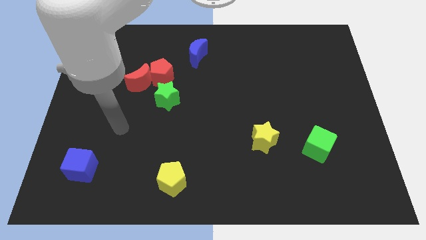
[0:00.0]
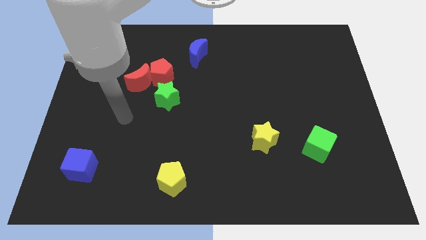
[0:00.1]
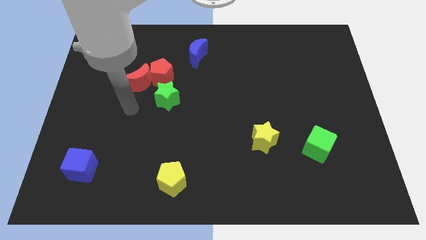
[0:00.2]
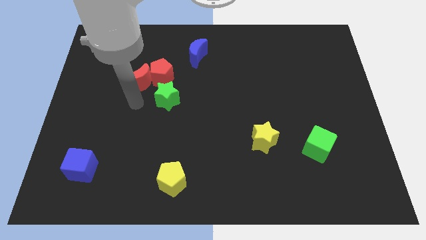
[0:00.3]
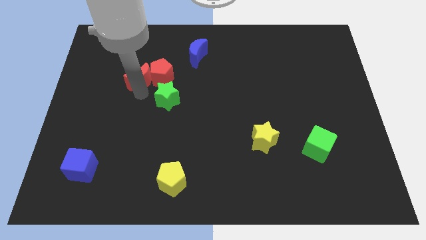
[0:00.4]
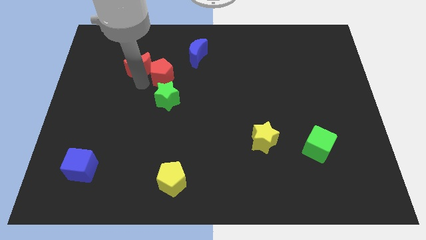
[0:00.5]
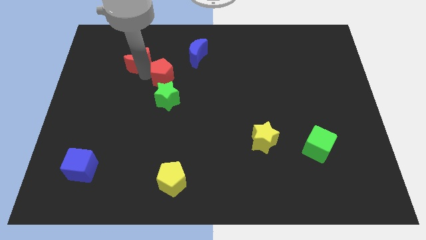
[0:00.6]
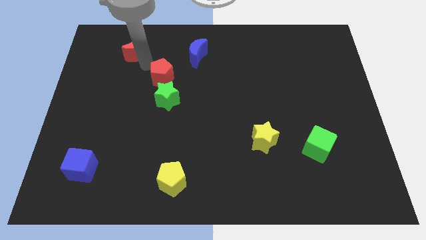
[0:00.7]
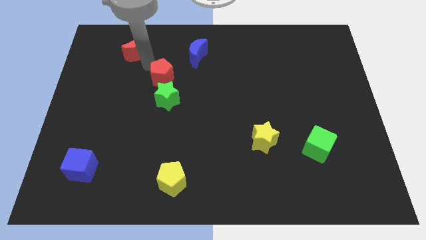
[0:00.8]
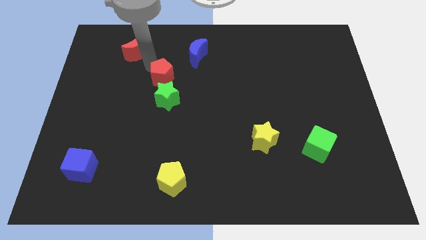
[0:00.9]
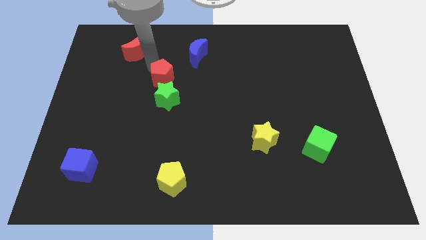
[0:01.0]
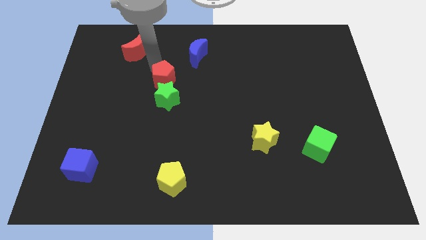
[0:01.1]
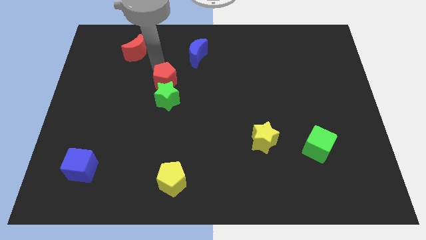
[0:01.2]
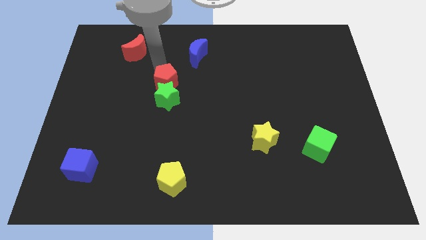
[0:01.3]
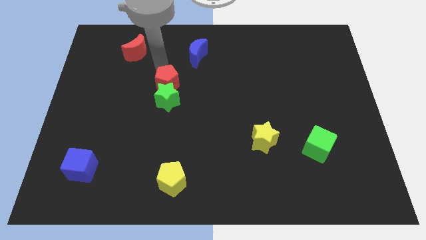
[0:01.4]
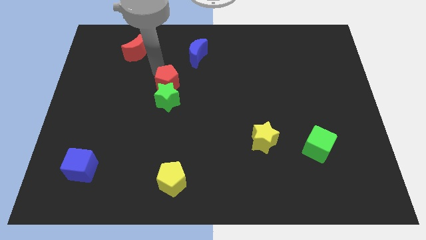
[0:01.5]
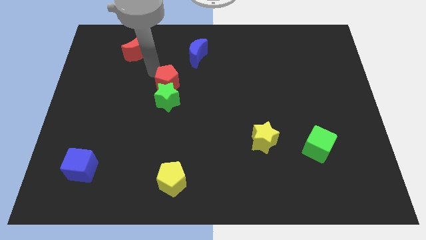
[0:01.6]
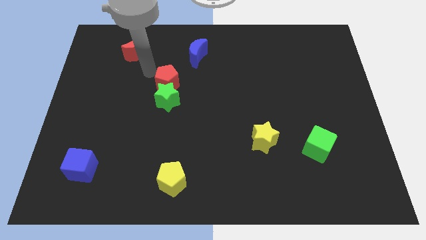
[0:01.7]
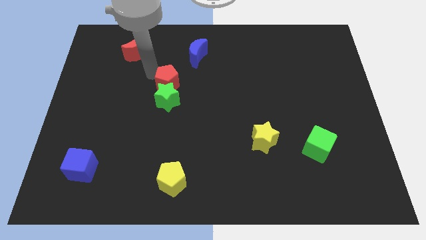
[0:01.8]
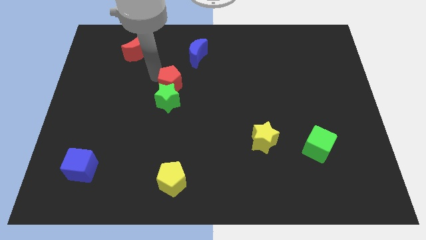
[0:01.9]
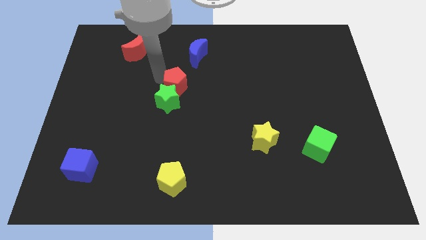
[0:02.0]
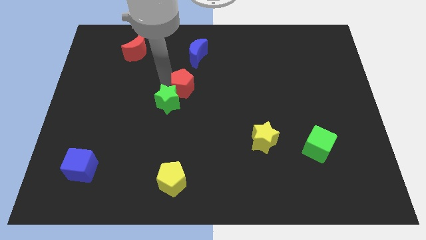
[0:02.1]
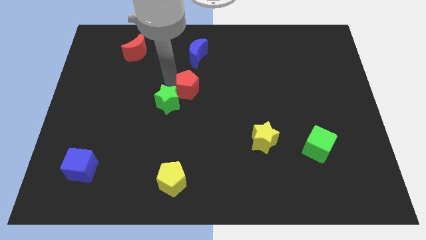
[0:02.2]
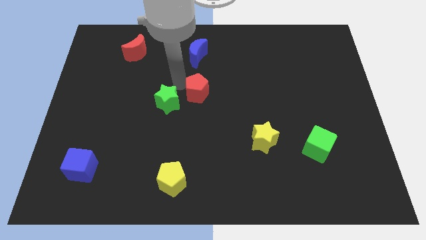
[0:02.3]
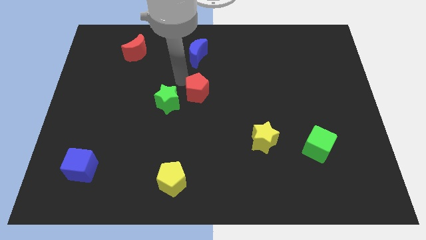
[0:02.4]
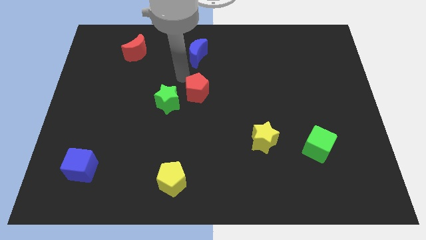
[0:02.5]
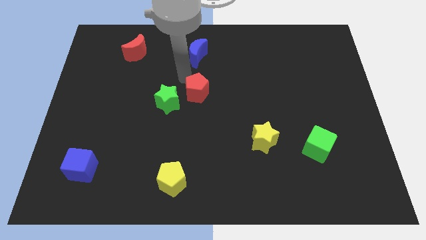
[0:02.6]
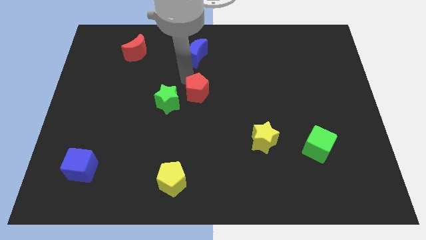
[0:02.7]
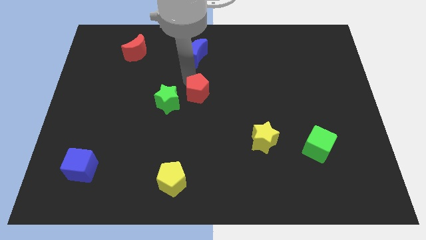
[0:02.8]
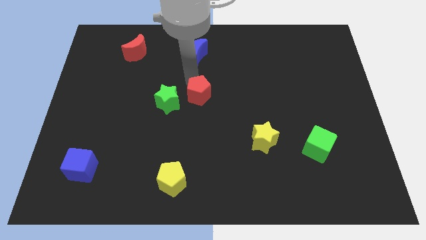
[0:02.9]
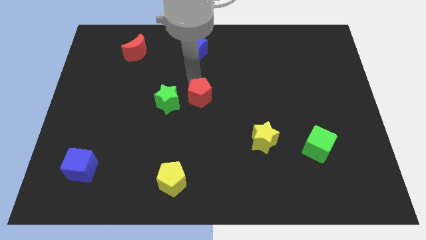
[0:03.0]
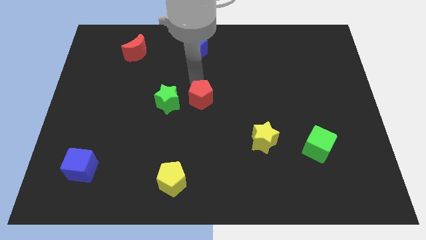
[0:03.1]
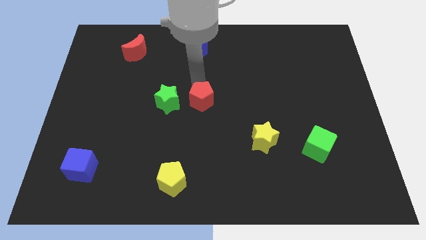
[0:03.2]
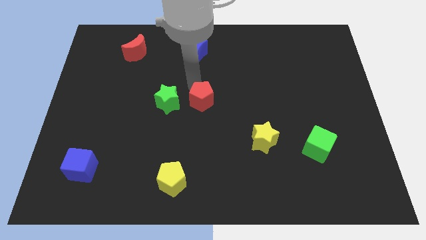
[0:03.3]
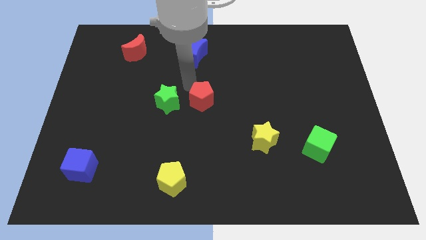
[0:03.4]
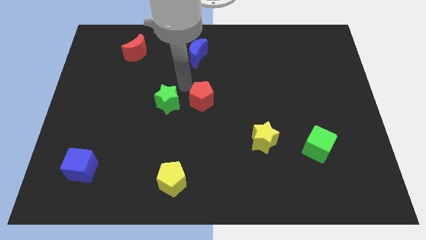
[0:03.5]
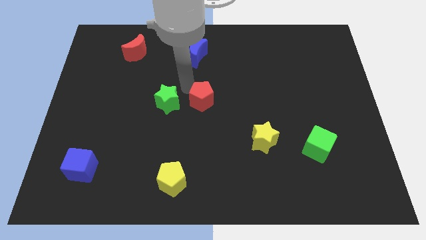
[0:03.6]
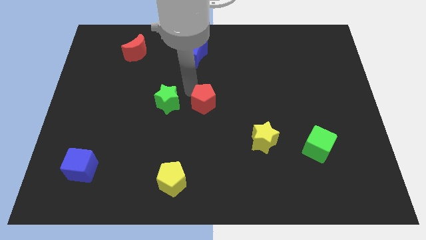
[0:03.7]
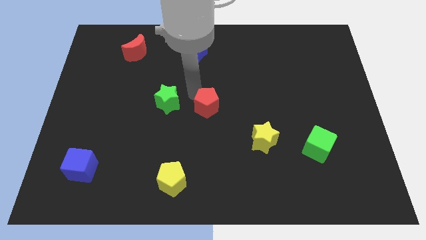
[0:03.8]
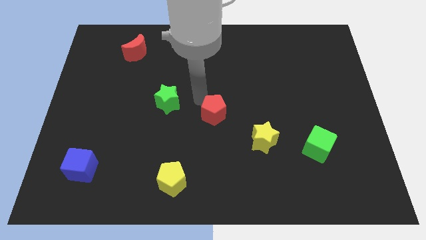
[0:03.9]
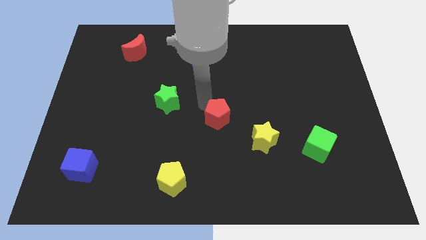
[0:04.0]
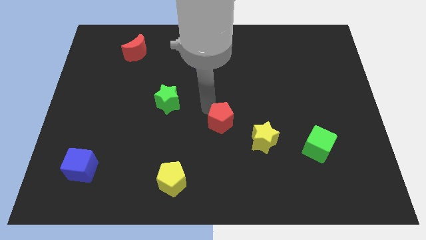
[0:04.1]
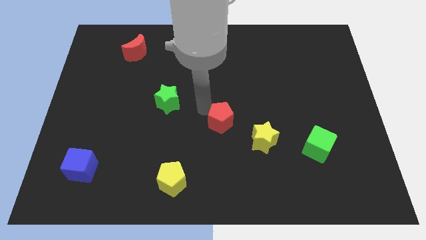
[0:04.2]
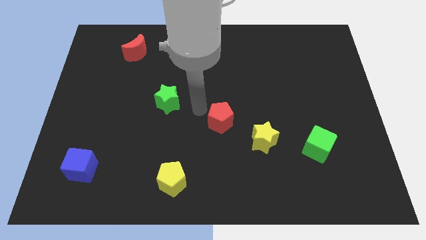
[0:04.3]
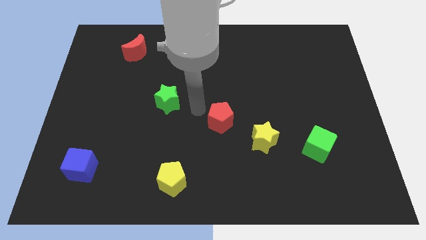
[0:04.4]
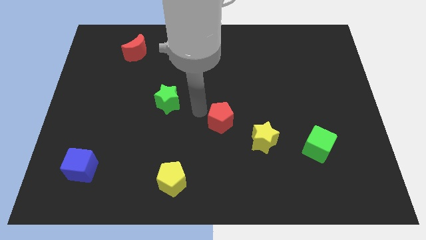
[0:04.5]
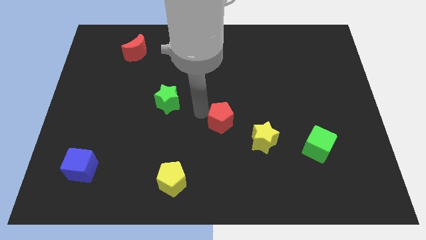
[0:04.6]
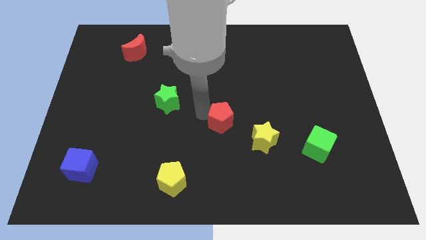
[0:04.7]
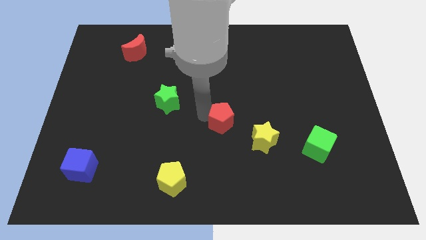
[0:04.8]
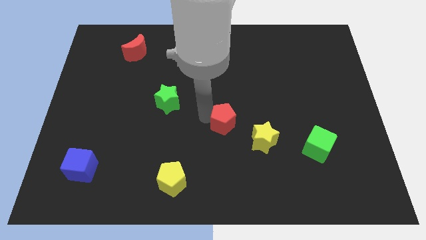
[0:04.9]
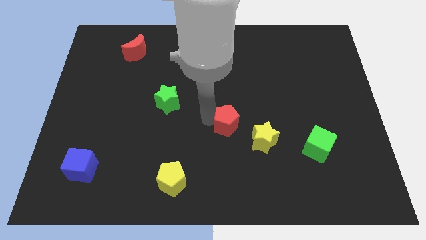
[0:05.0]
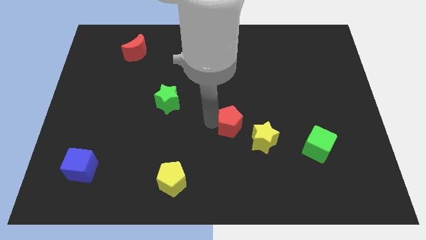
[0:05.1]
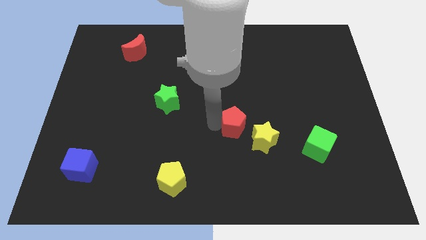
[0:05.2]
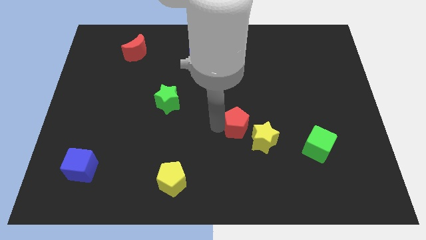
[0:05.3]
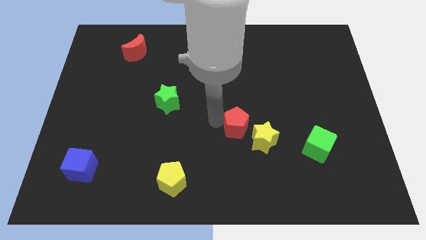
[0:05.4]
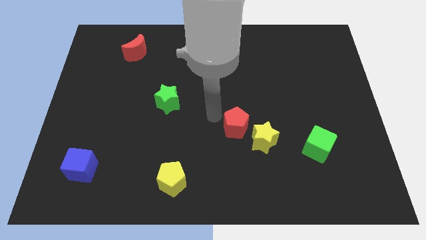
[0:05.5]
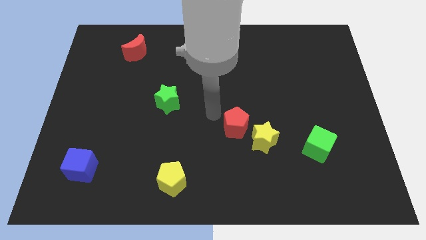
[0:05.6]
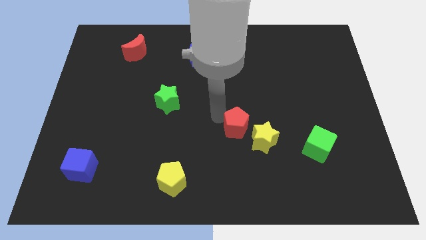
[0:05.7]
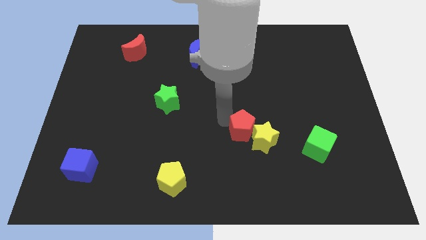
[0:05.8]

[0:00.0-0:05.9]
put the red pentagon close to the yellow star

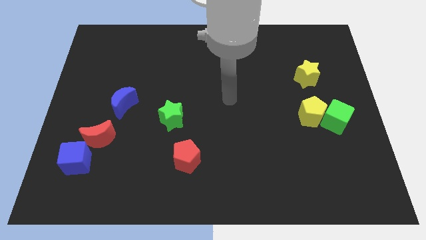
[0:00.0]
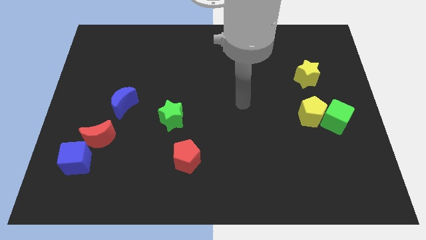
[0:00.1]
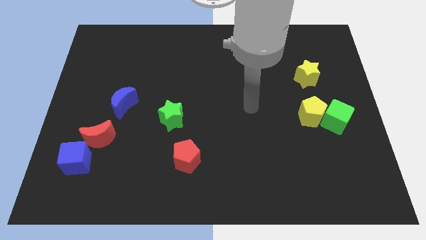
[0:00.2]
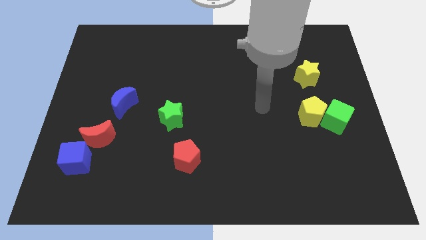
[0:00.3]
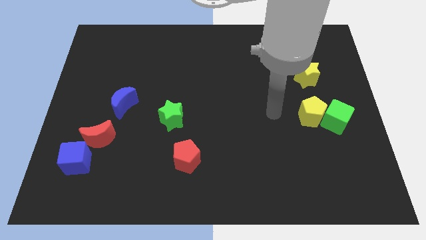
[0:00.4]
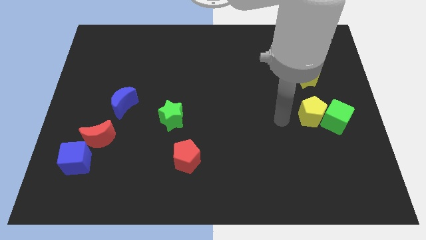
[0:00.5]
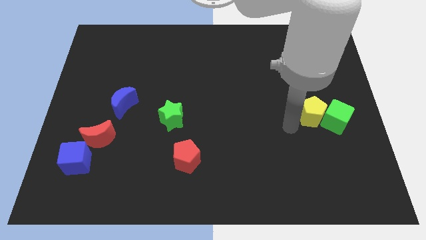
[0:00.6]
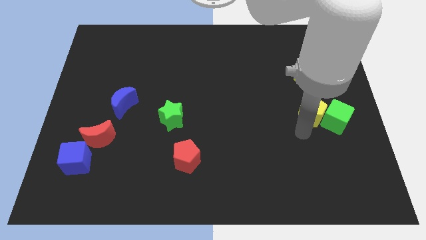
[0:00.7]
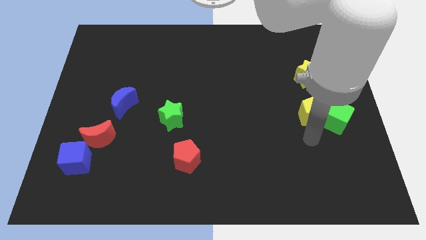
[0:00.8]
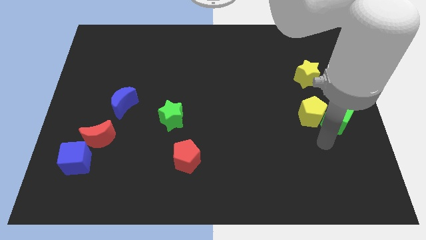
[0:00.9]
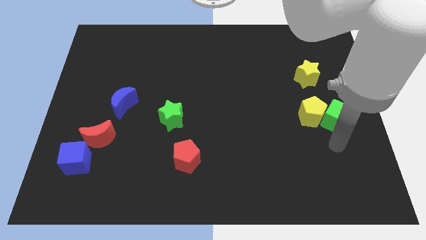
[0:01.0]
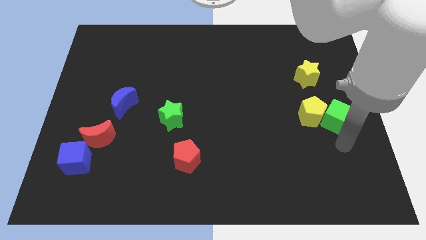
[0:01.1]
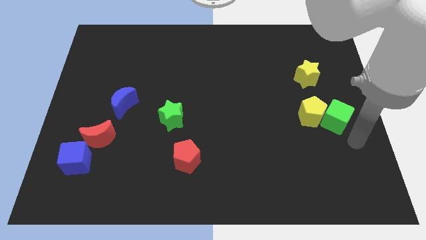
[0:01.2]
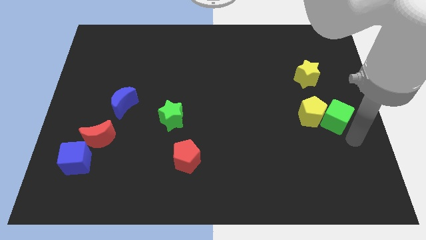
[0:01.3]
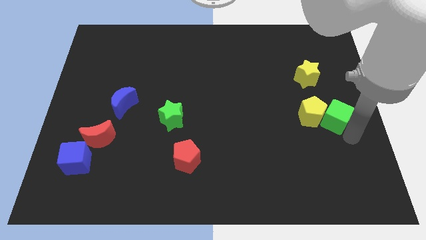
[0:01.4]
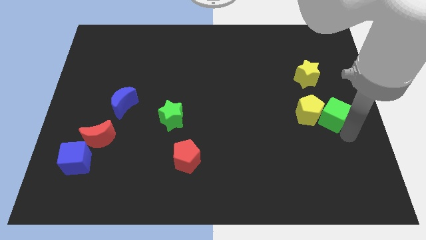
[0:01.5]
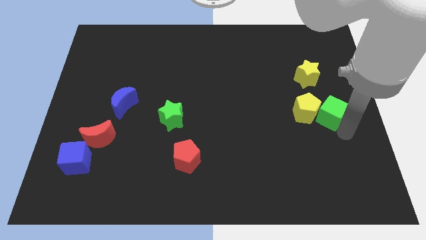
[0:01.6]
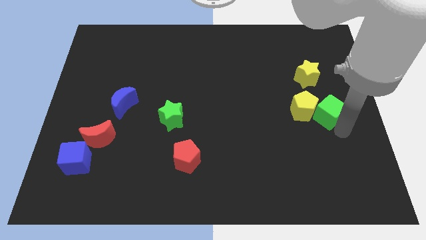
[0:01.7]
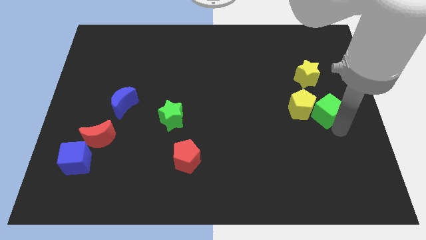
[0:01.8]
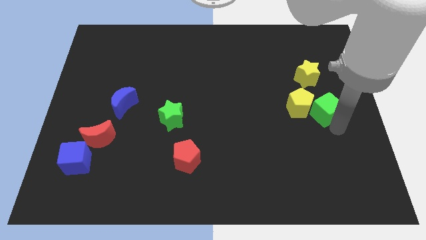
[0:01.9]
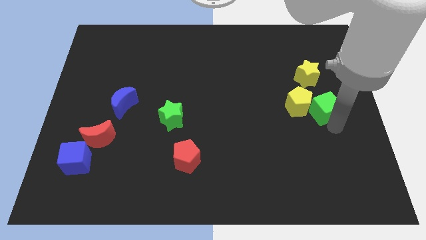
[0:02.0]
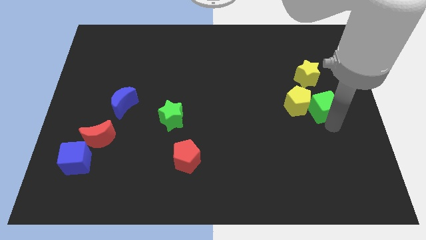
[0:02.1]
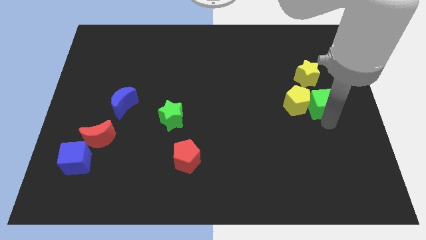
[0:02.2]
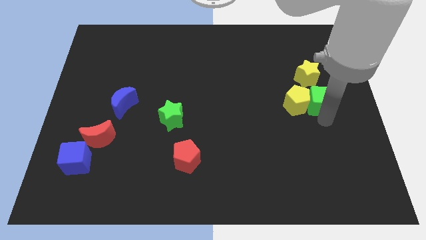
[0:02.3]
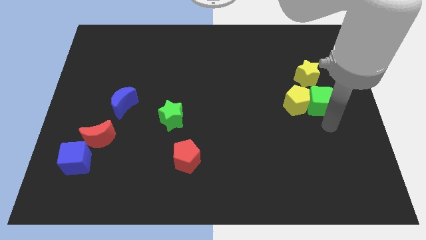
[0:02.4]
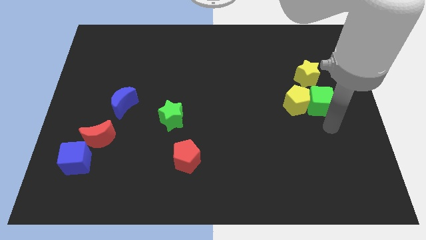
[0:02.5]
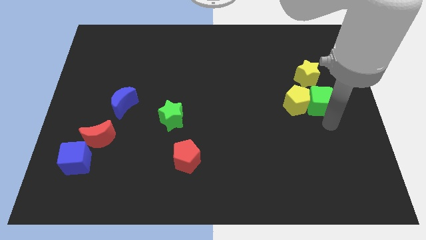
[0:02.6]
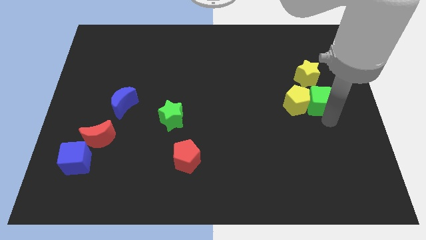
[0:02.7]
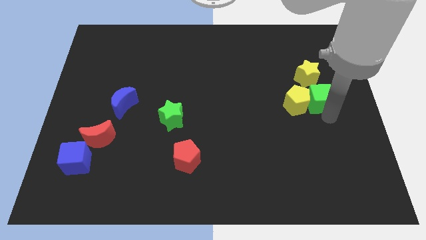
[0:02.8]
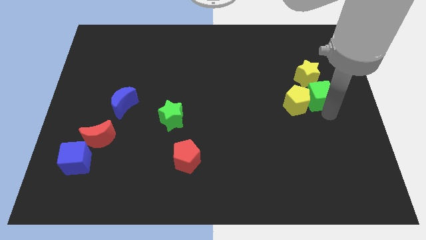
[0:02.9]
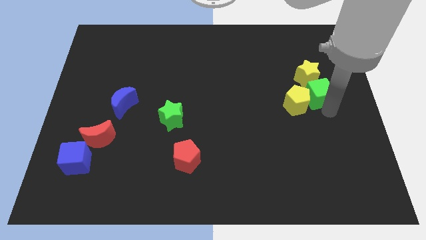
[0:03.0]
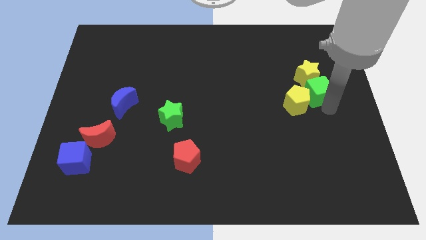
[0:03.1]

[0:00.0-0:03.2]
push the green cube towards the yellow star
